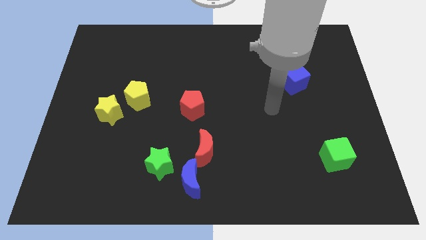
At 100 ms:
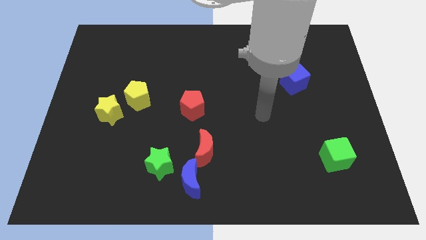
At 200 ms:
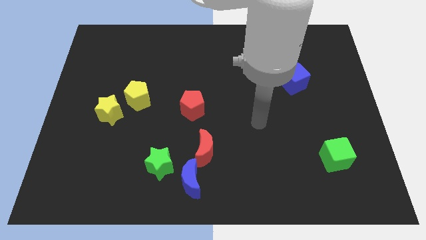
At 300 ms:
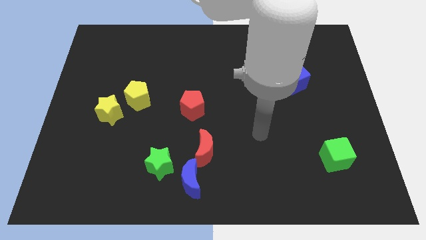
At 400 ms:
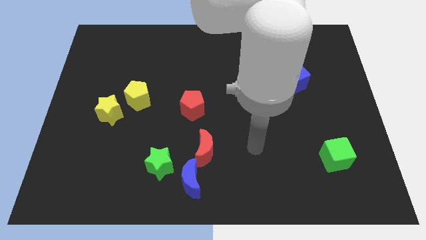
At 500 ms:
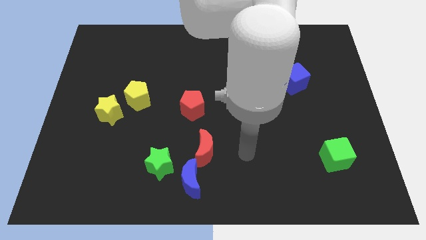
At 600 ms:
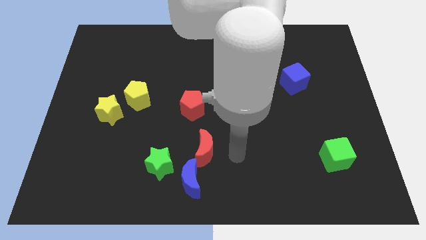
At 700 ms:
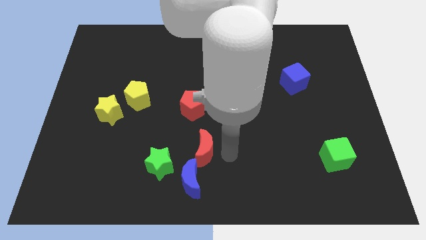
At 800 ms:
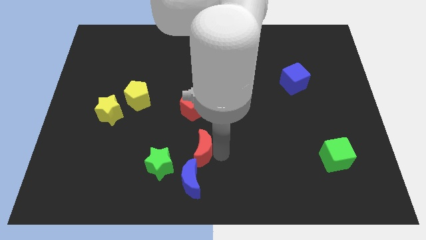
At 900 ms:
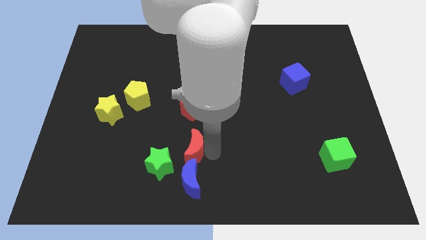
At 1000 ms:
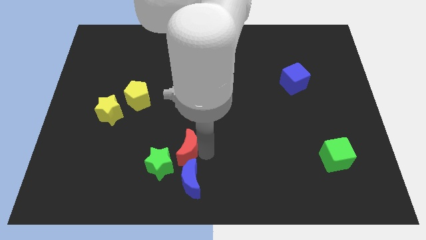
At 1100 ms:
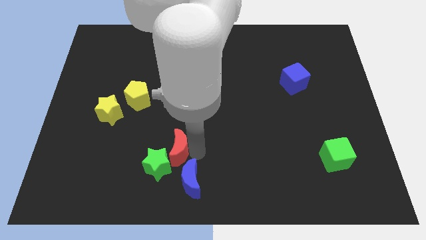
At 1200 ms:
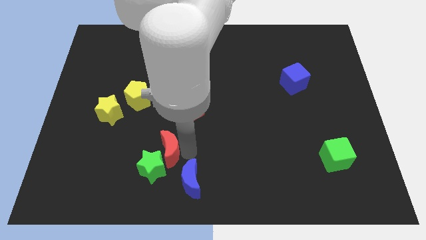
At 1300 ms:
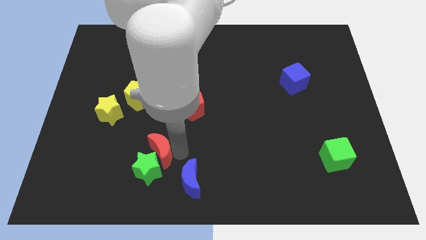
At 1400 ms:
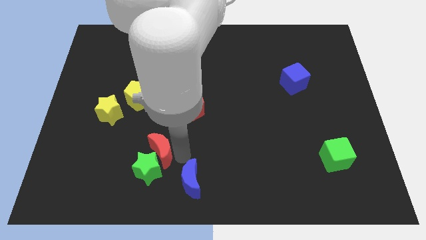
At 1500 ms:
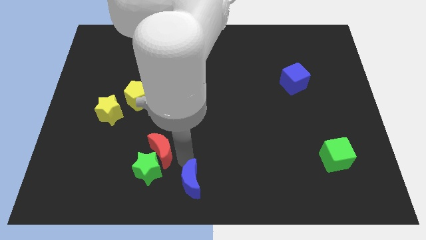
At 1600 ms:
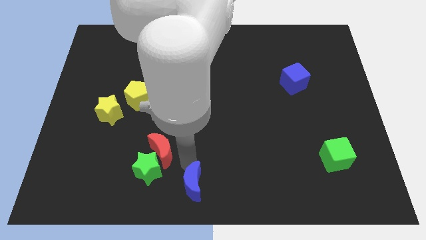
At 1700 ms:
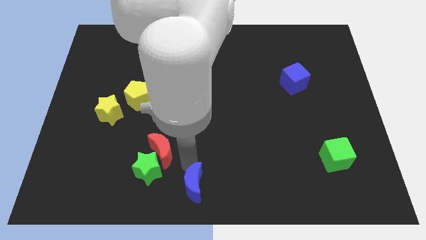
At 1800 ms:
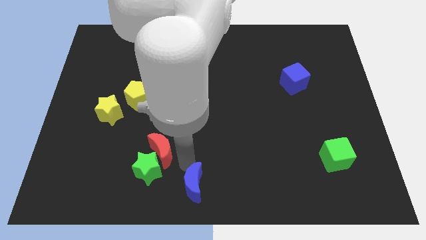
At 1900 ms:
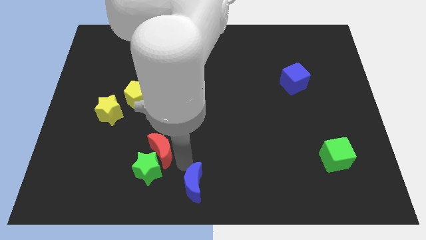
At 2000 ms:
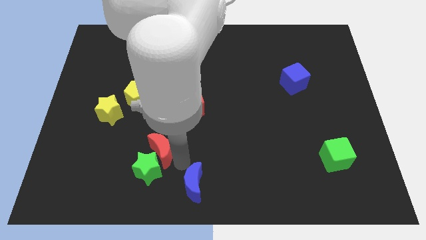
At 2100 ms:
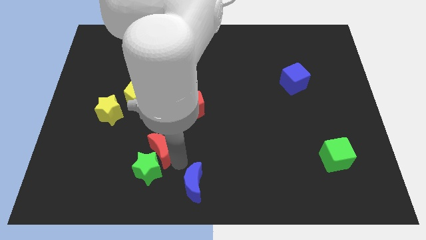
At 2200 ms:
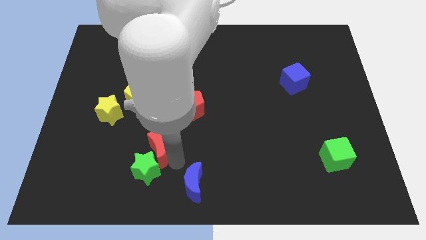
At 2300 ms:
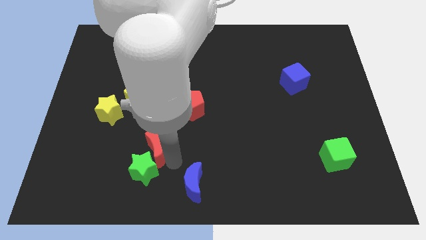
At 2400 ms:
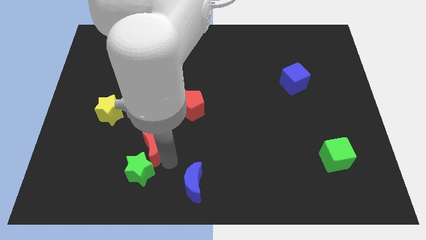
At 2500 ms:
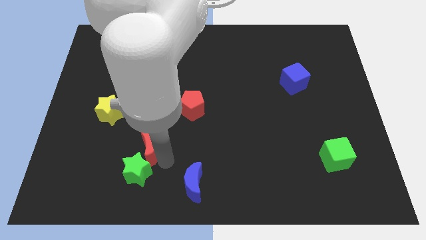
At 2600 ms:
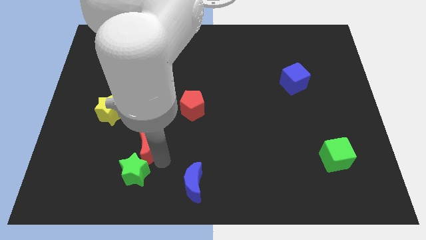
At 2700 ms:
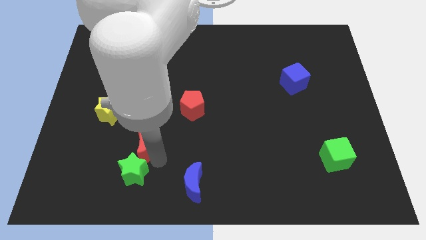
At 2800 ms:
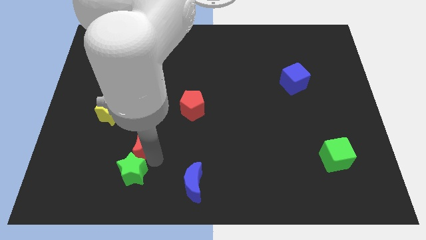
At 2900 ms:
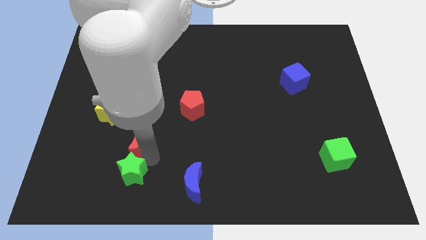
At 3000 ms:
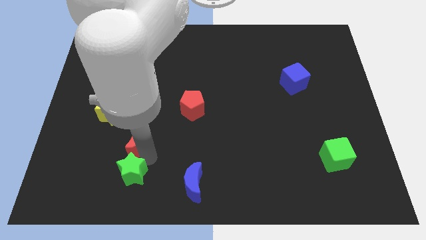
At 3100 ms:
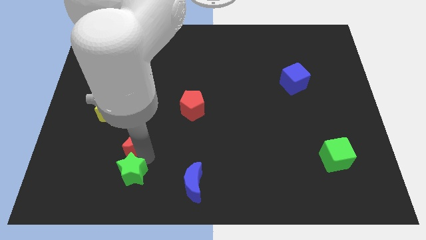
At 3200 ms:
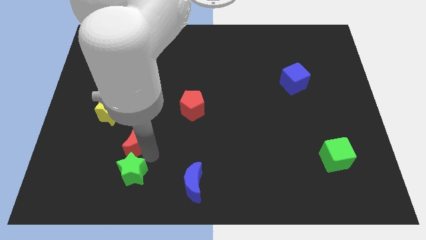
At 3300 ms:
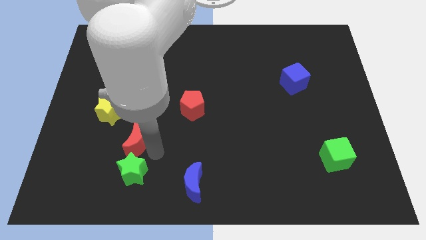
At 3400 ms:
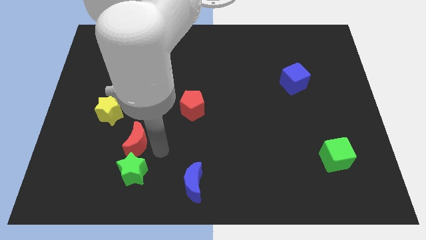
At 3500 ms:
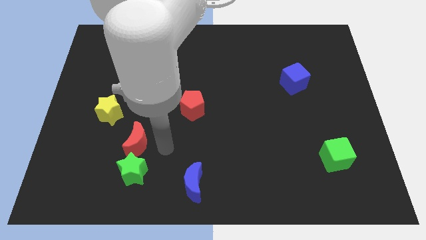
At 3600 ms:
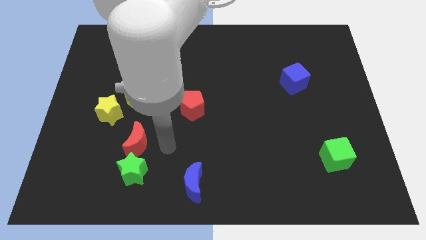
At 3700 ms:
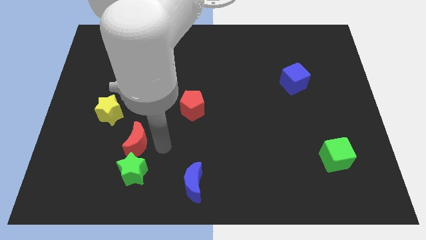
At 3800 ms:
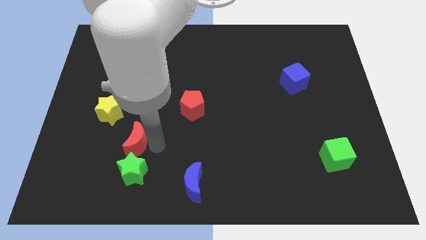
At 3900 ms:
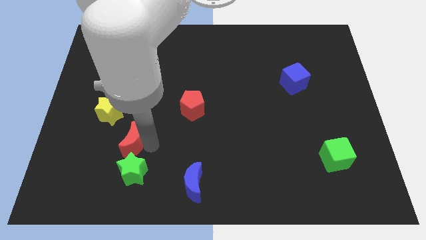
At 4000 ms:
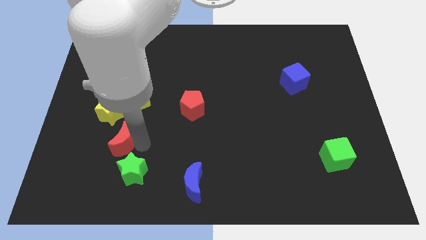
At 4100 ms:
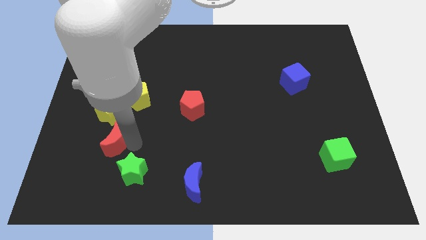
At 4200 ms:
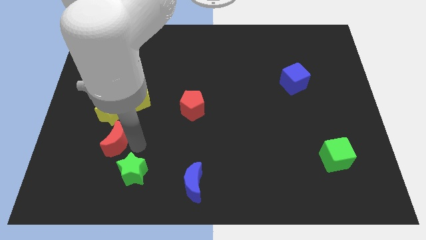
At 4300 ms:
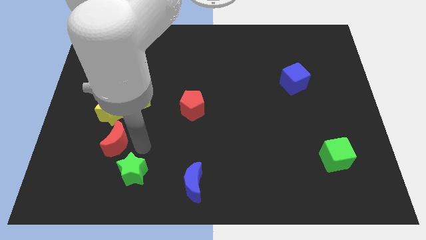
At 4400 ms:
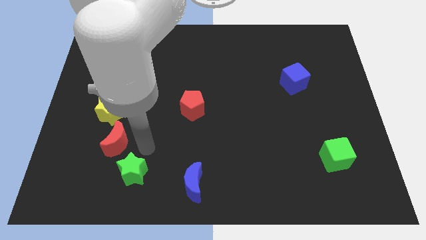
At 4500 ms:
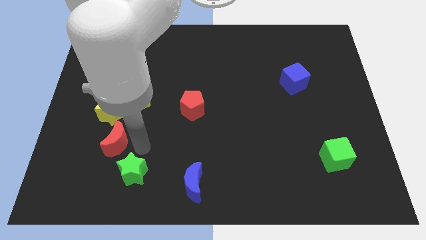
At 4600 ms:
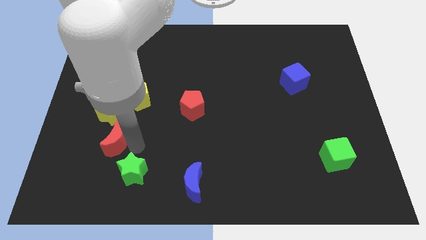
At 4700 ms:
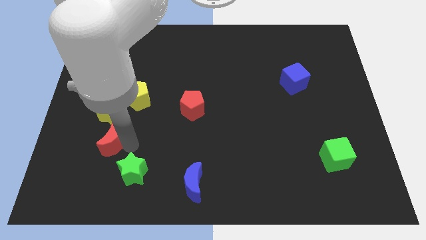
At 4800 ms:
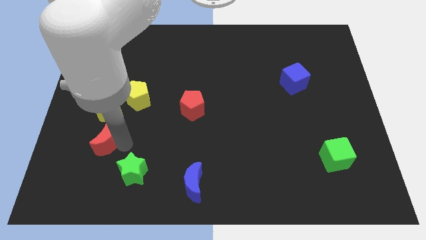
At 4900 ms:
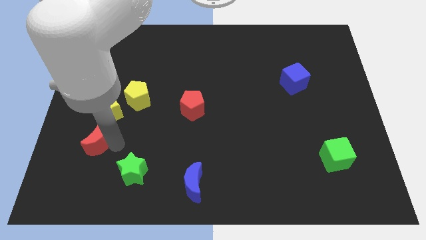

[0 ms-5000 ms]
slide the red moon to the bottom left of the yellow star

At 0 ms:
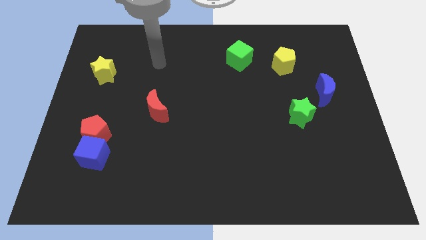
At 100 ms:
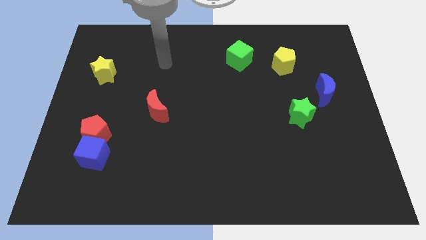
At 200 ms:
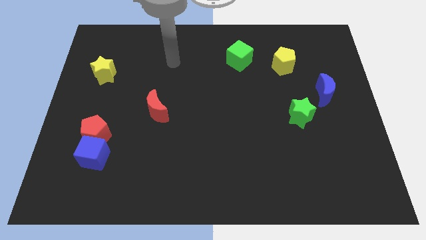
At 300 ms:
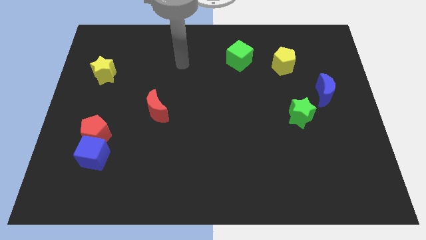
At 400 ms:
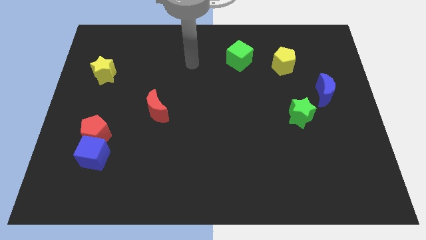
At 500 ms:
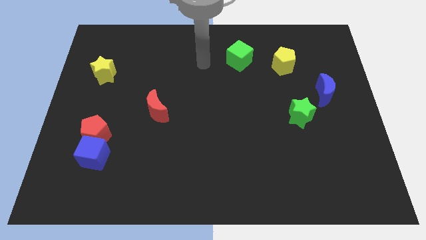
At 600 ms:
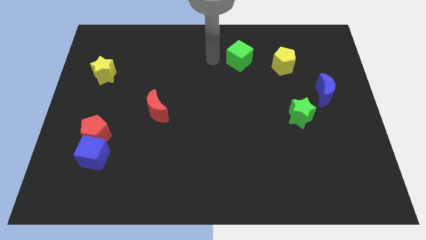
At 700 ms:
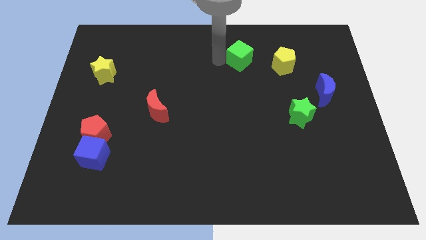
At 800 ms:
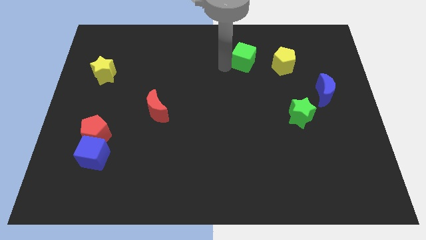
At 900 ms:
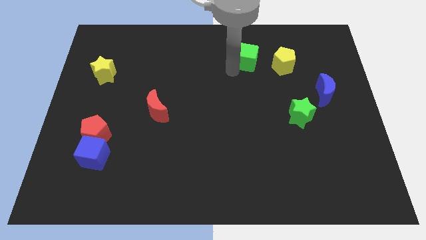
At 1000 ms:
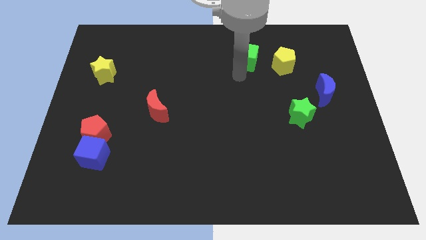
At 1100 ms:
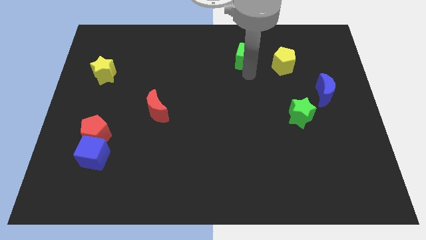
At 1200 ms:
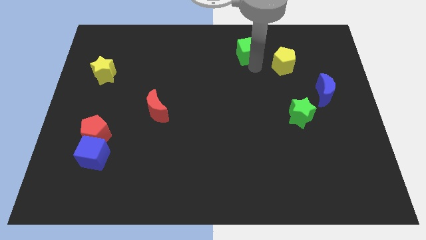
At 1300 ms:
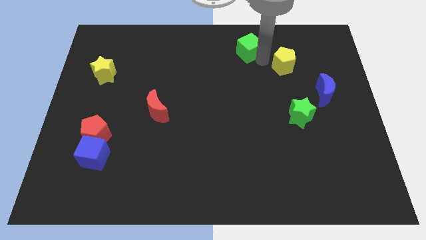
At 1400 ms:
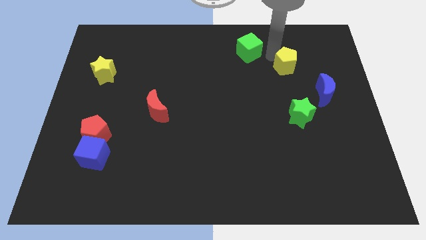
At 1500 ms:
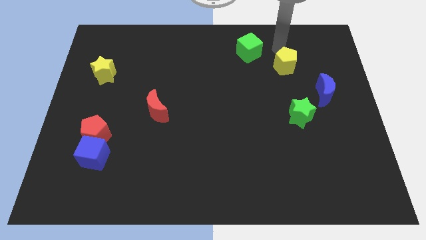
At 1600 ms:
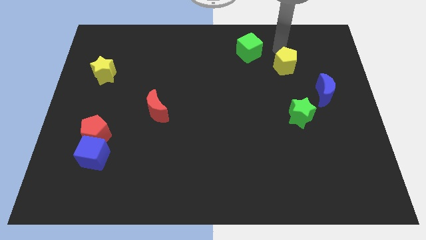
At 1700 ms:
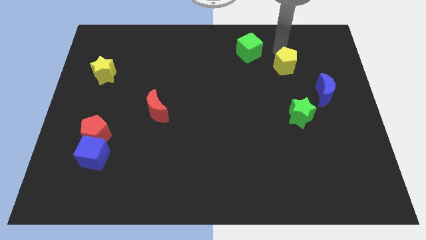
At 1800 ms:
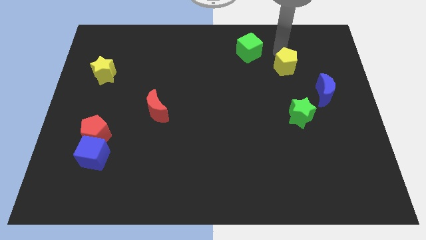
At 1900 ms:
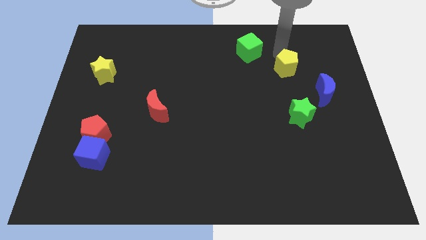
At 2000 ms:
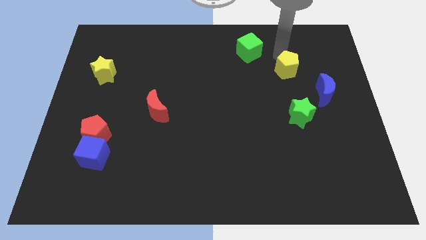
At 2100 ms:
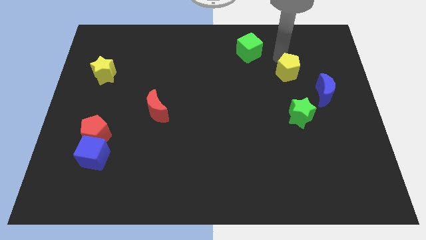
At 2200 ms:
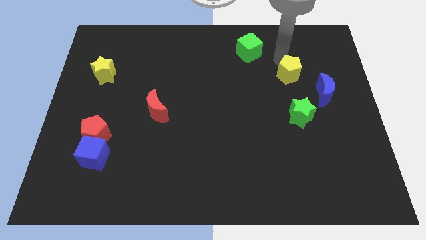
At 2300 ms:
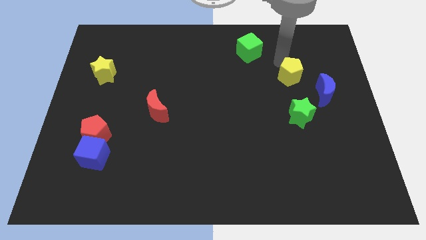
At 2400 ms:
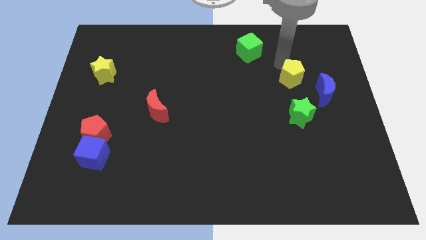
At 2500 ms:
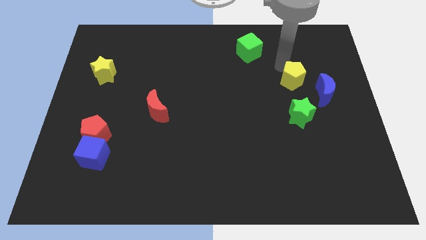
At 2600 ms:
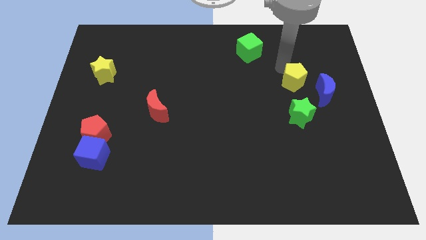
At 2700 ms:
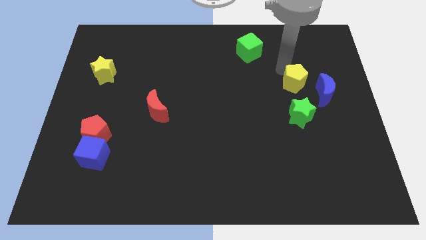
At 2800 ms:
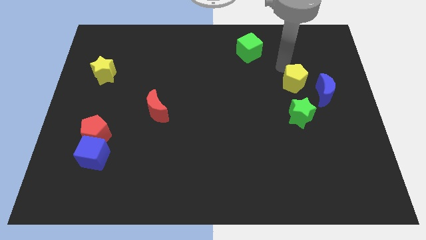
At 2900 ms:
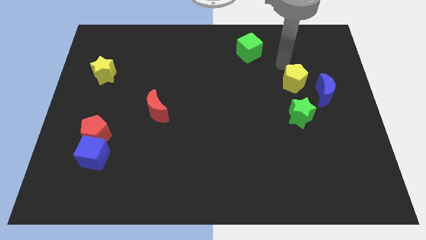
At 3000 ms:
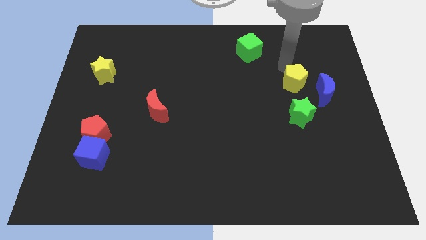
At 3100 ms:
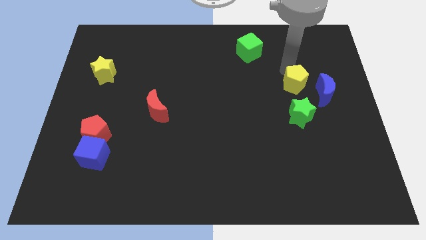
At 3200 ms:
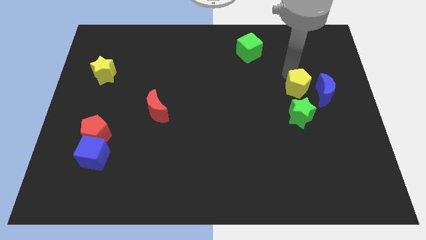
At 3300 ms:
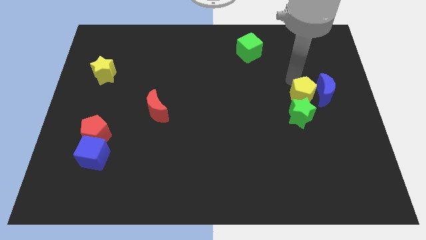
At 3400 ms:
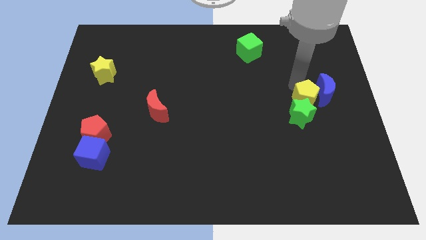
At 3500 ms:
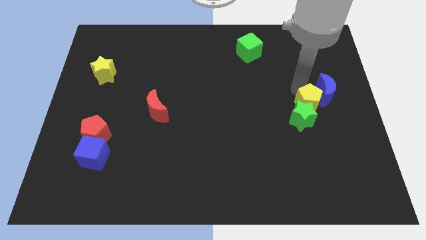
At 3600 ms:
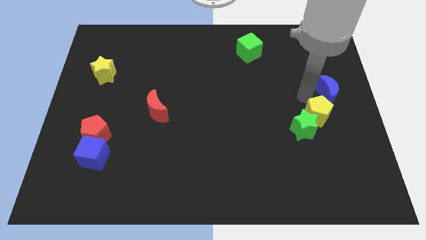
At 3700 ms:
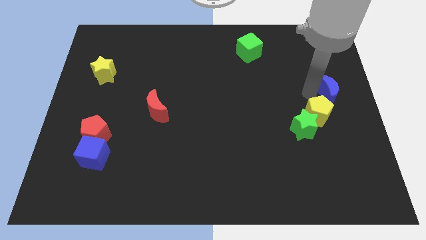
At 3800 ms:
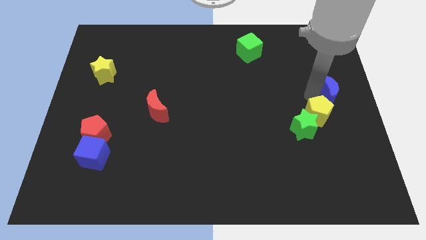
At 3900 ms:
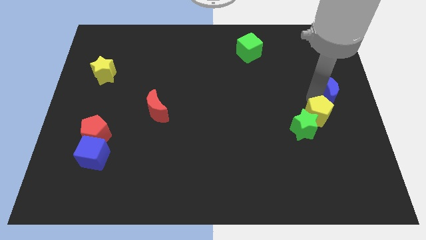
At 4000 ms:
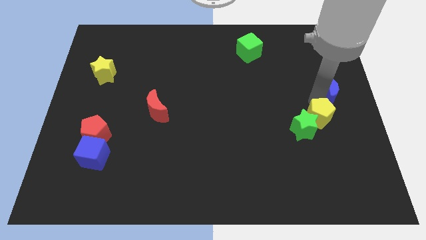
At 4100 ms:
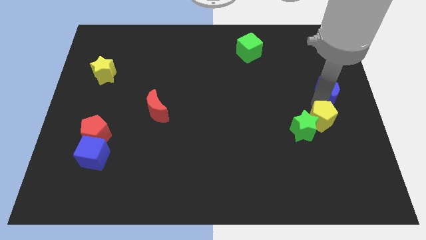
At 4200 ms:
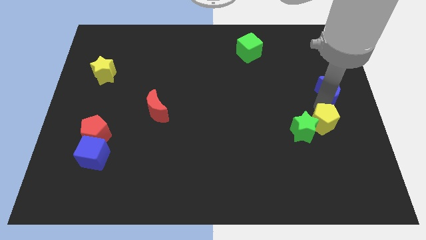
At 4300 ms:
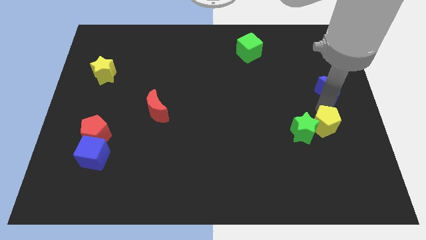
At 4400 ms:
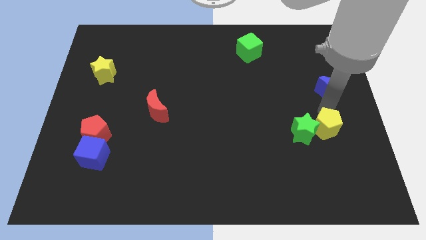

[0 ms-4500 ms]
put the yellow pentagon to the bottom right of the green star
